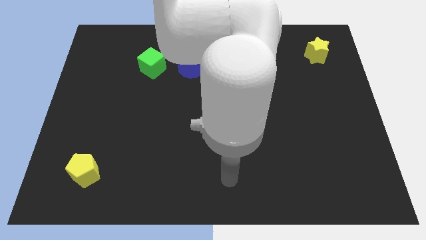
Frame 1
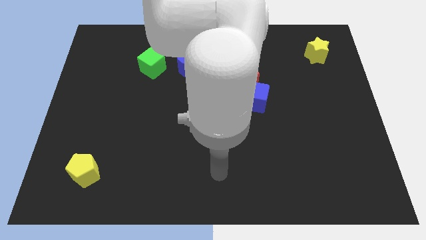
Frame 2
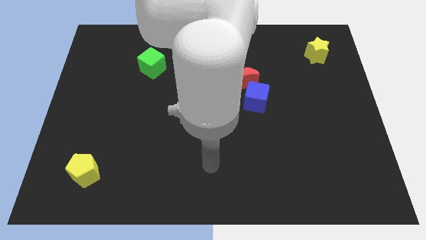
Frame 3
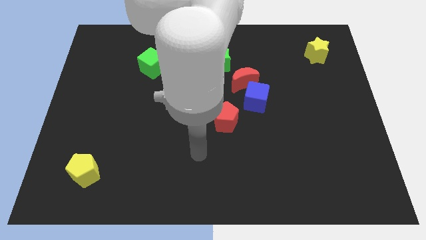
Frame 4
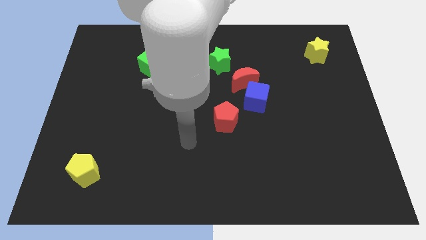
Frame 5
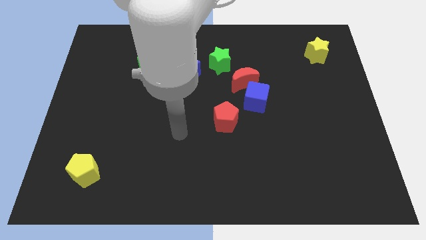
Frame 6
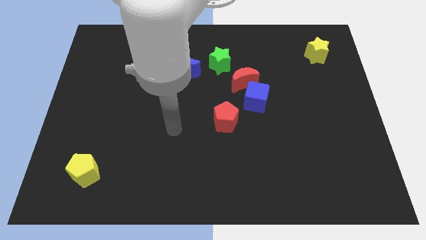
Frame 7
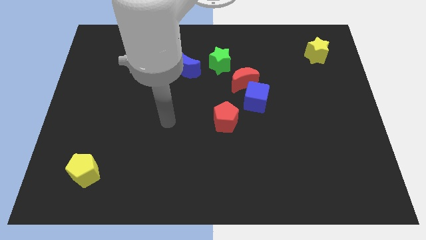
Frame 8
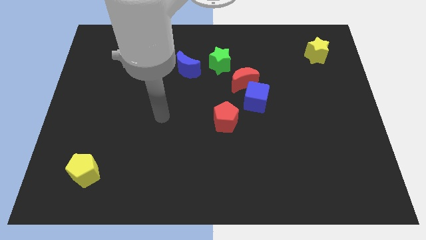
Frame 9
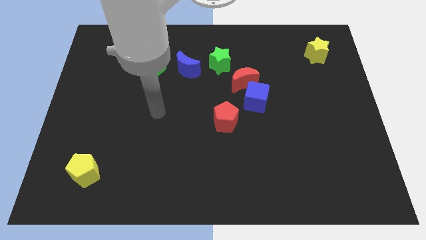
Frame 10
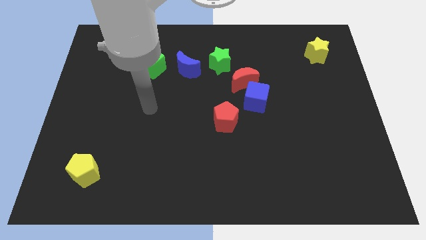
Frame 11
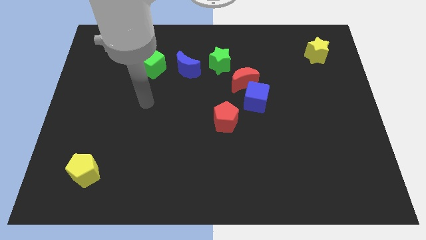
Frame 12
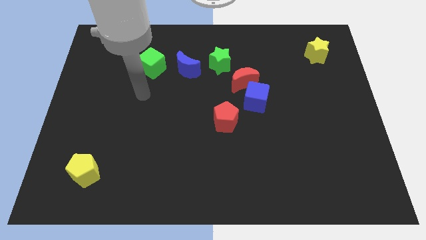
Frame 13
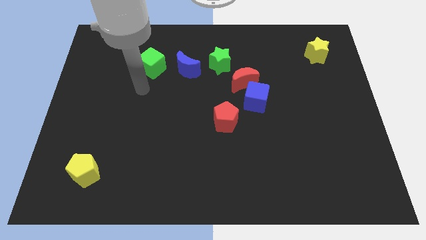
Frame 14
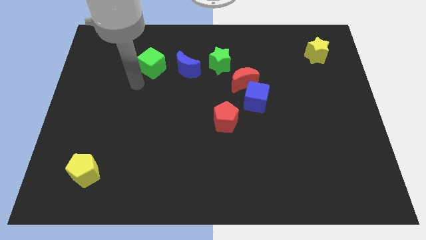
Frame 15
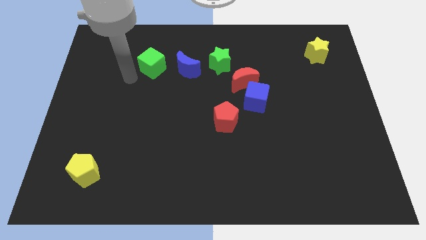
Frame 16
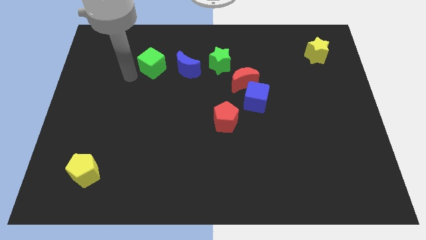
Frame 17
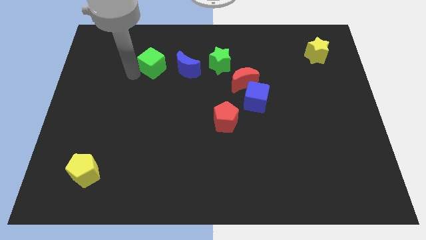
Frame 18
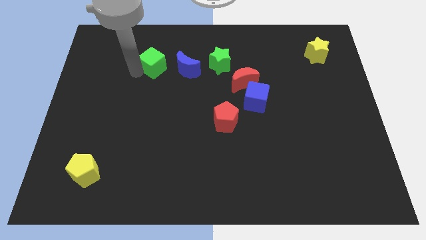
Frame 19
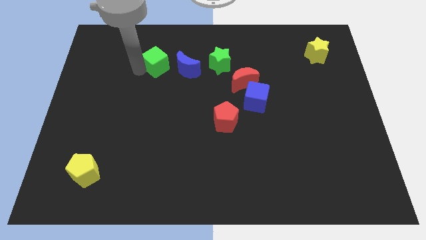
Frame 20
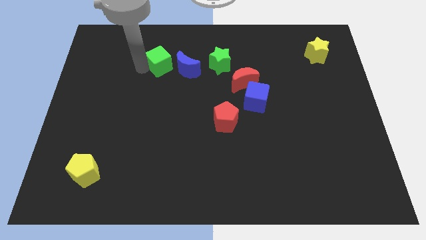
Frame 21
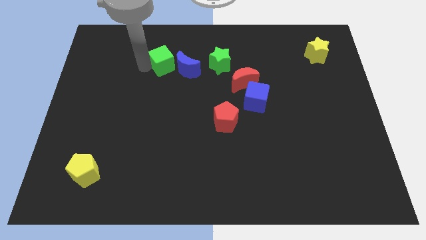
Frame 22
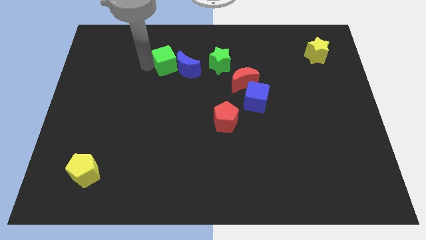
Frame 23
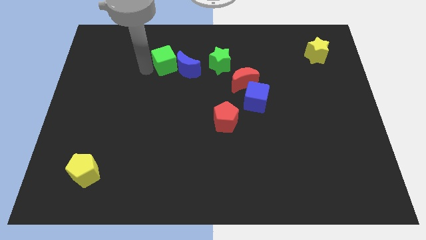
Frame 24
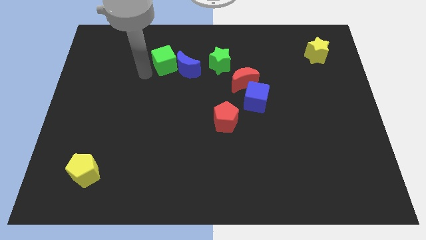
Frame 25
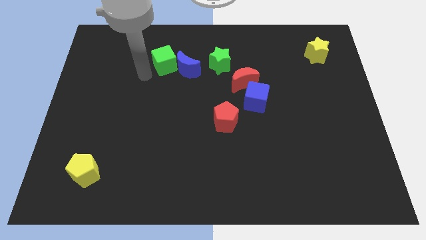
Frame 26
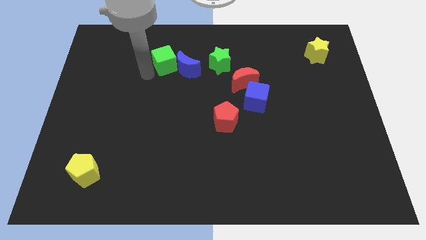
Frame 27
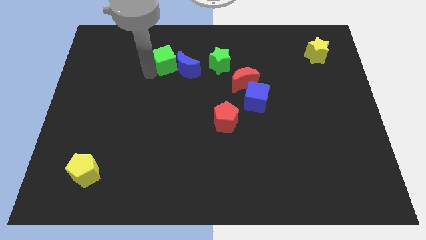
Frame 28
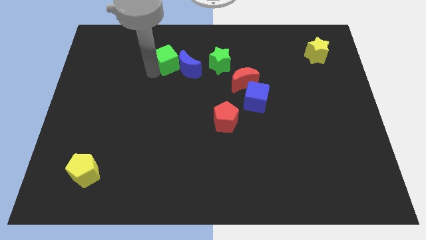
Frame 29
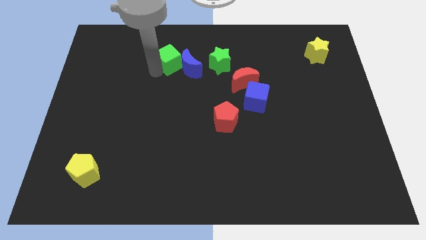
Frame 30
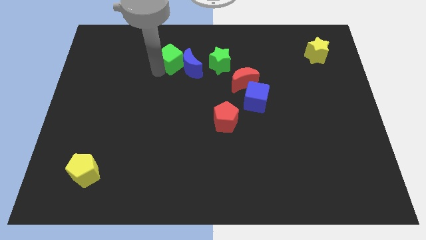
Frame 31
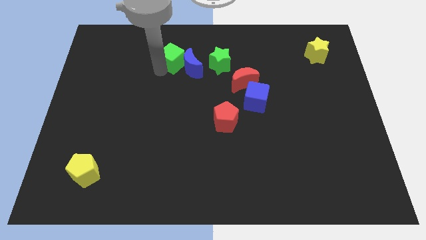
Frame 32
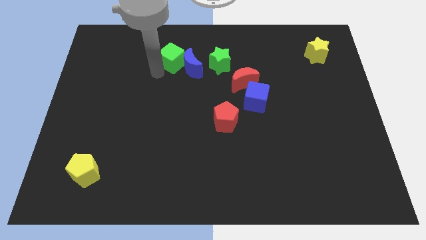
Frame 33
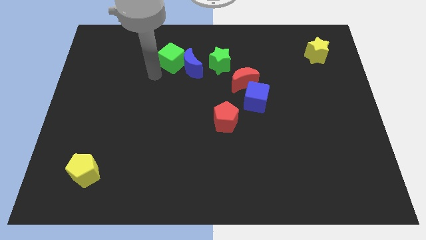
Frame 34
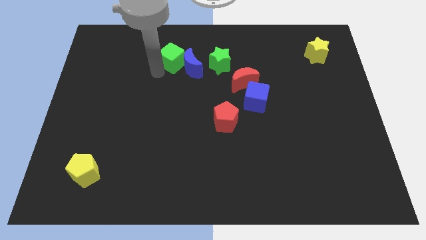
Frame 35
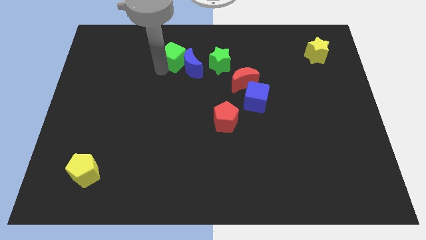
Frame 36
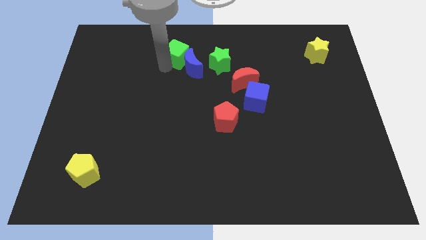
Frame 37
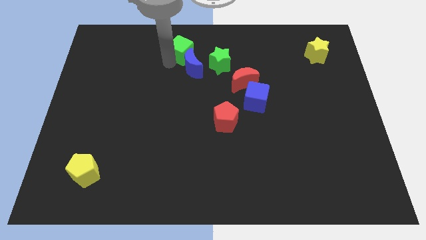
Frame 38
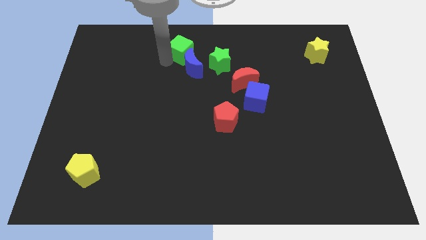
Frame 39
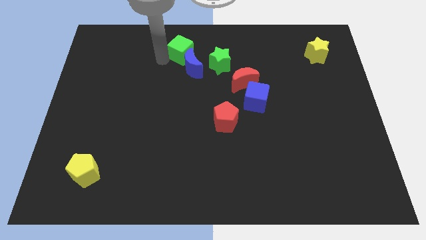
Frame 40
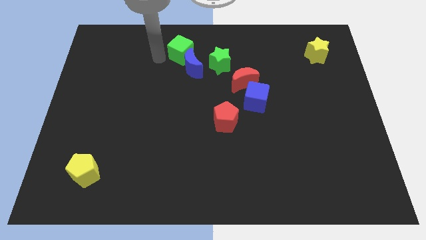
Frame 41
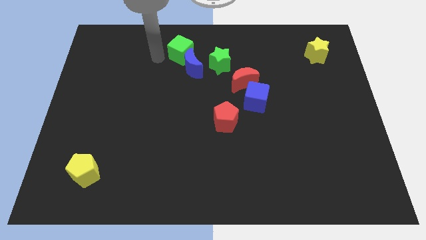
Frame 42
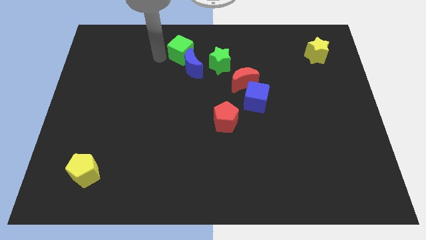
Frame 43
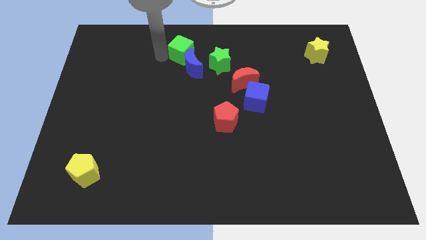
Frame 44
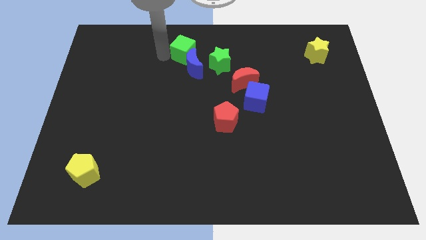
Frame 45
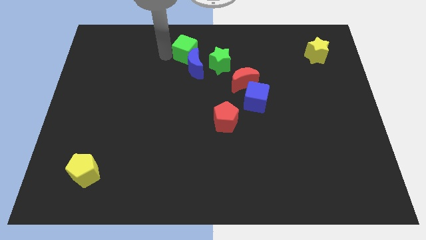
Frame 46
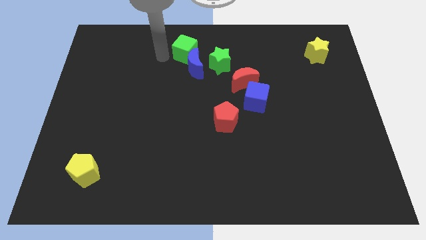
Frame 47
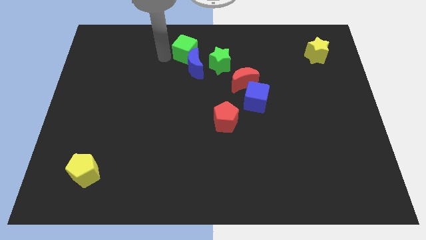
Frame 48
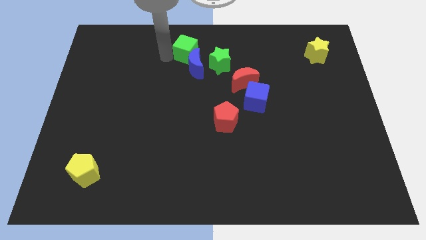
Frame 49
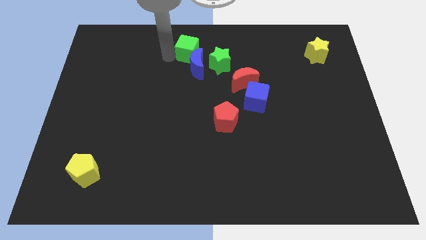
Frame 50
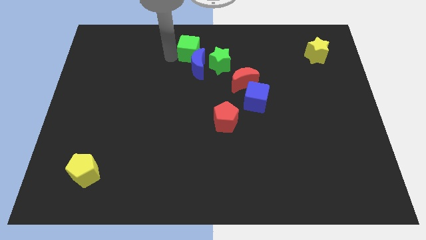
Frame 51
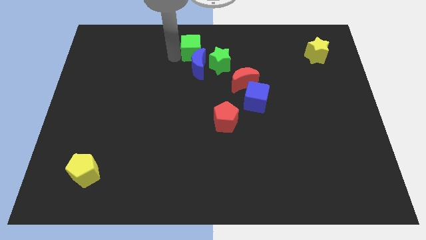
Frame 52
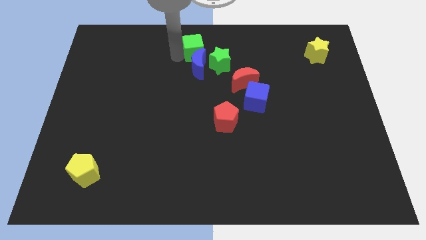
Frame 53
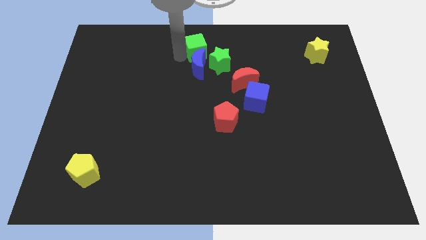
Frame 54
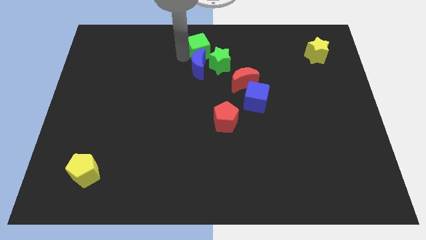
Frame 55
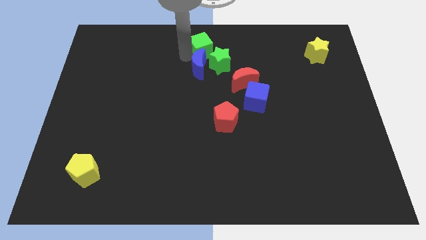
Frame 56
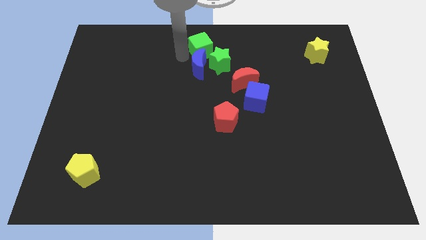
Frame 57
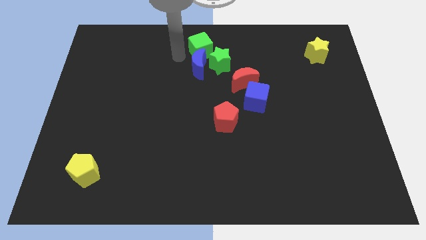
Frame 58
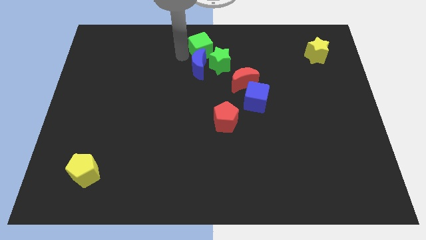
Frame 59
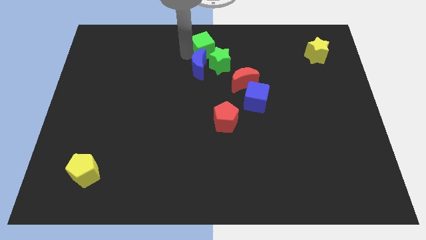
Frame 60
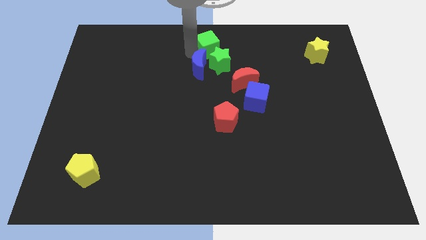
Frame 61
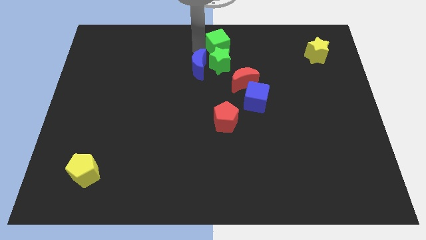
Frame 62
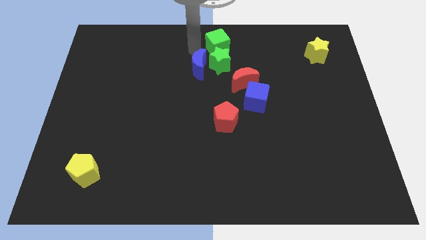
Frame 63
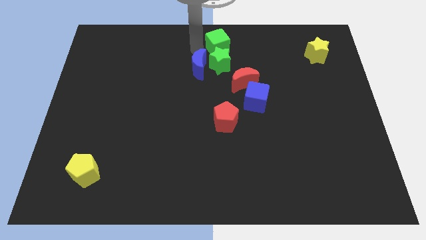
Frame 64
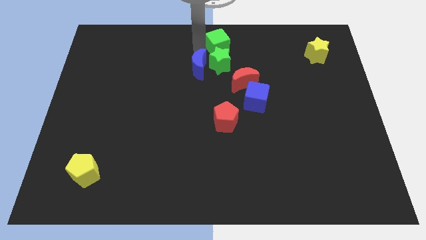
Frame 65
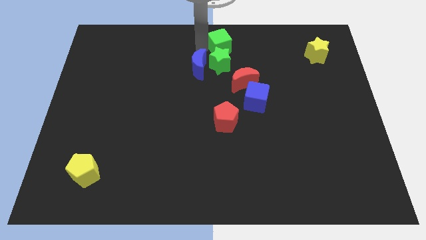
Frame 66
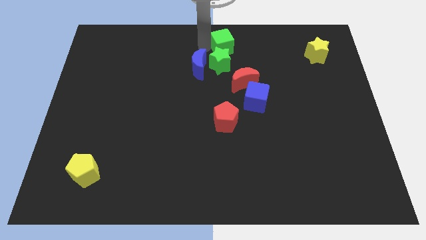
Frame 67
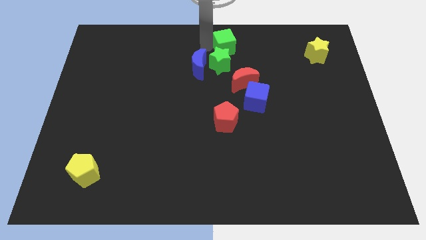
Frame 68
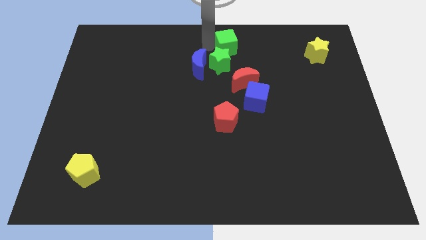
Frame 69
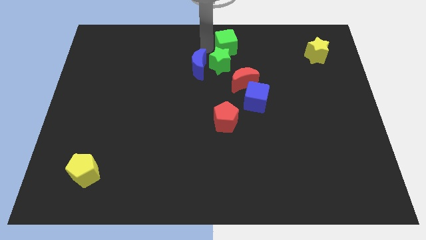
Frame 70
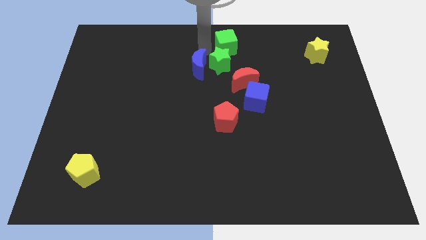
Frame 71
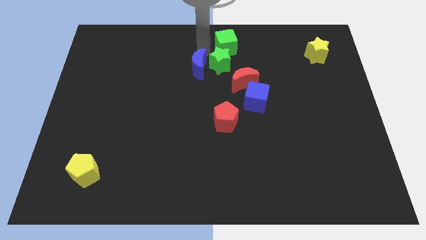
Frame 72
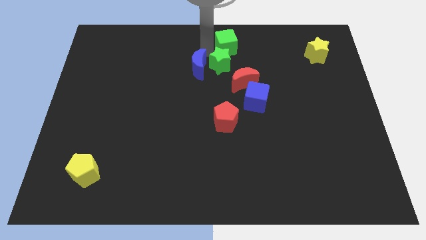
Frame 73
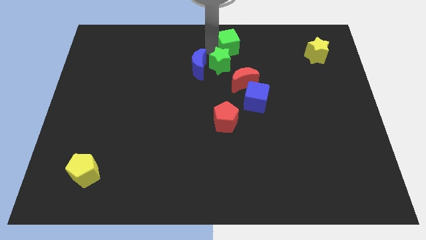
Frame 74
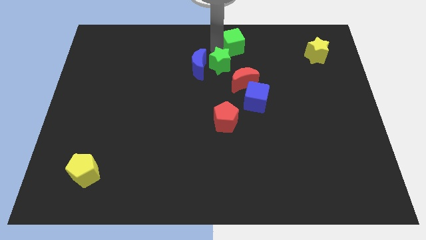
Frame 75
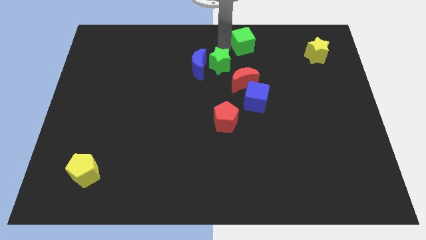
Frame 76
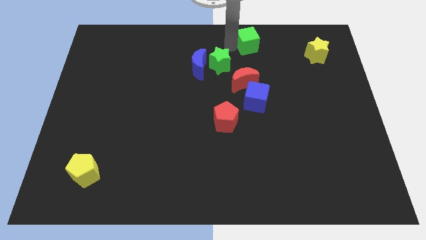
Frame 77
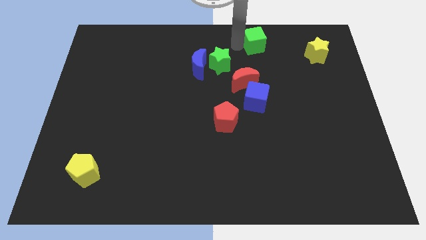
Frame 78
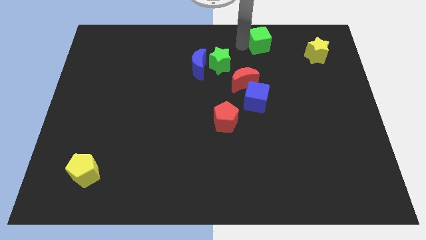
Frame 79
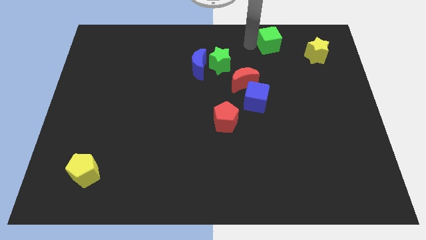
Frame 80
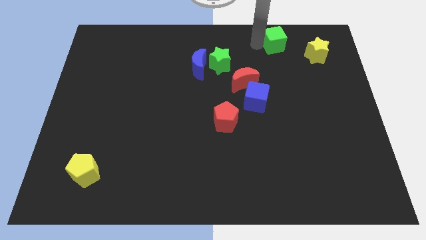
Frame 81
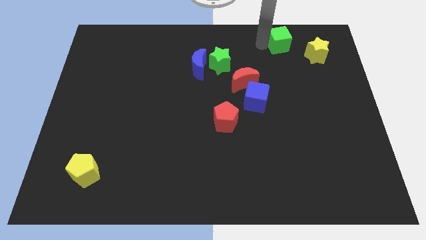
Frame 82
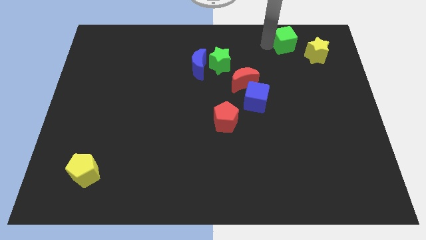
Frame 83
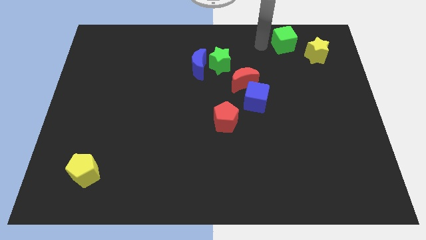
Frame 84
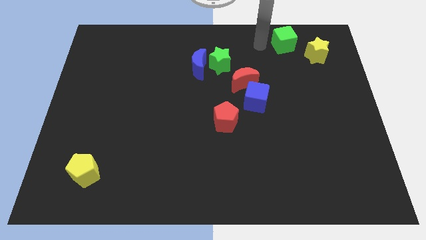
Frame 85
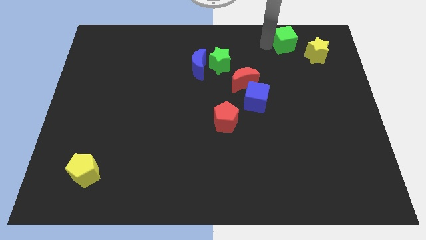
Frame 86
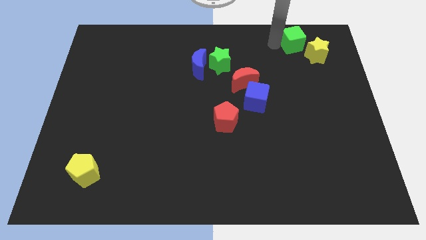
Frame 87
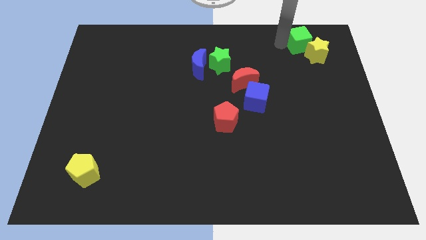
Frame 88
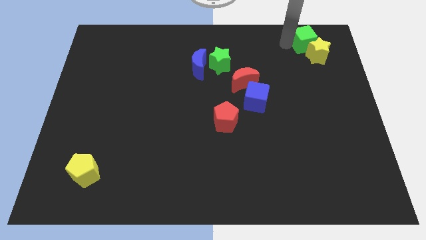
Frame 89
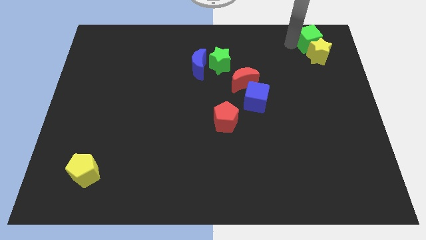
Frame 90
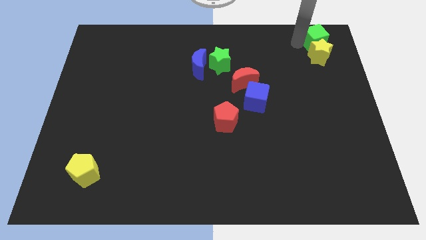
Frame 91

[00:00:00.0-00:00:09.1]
move the green cube to the top right
